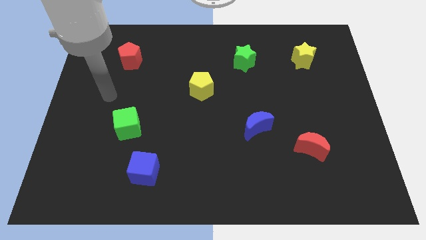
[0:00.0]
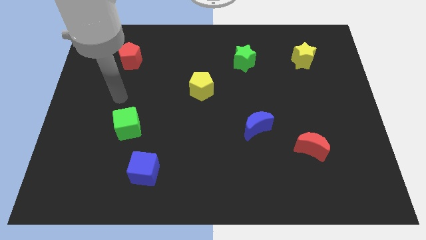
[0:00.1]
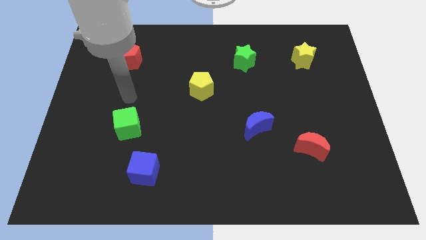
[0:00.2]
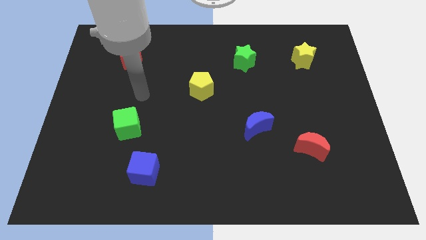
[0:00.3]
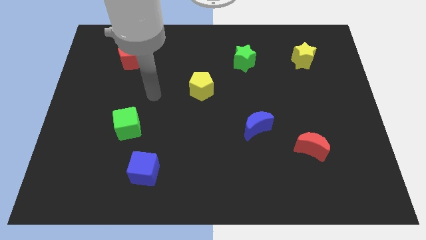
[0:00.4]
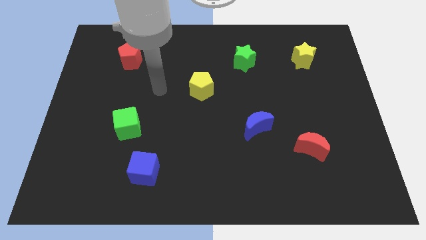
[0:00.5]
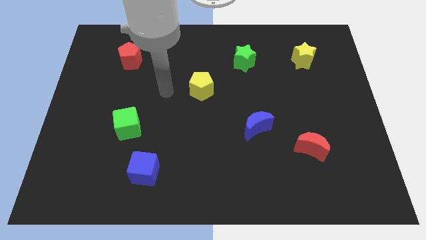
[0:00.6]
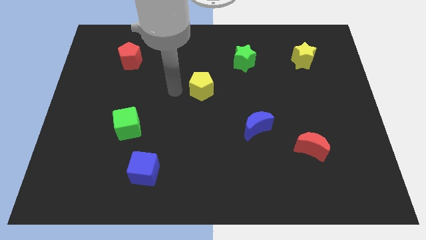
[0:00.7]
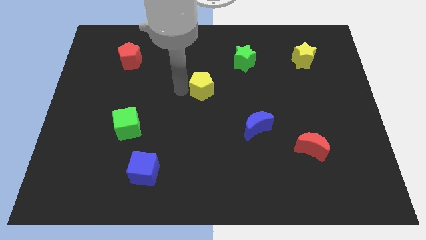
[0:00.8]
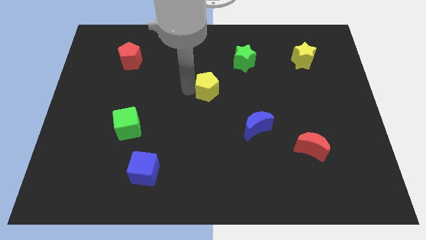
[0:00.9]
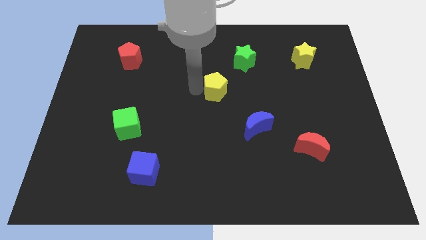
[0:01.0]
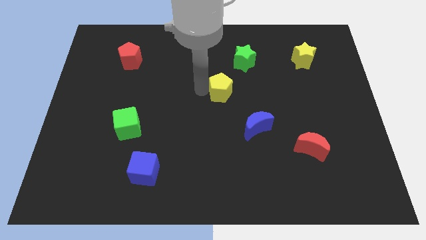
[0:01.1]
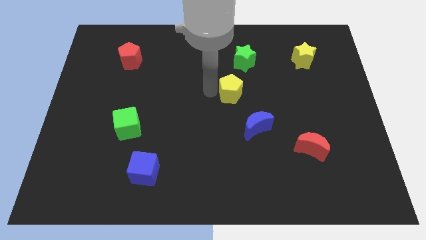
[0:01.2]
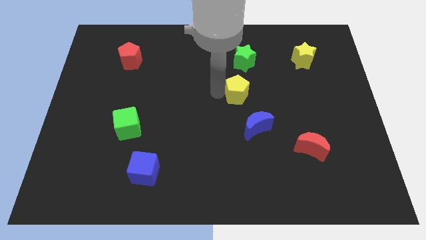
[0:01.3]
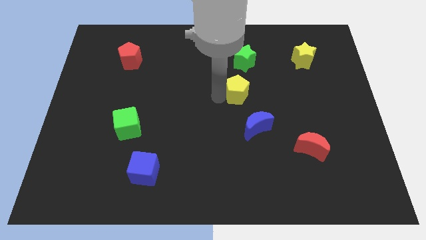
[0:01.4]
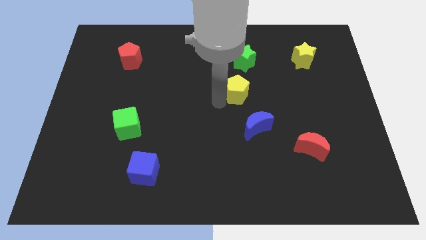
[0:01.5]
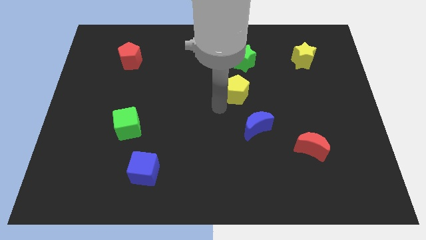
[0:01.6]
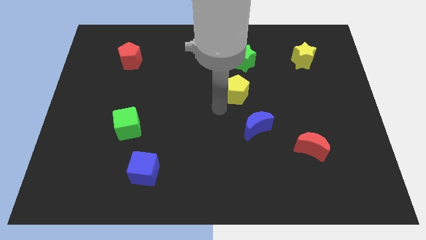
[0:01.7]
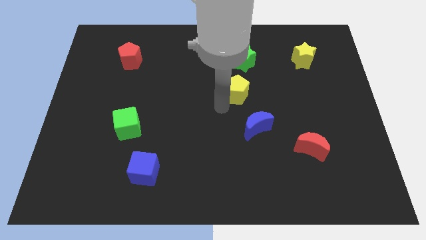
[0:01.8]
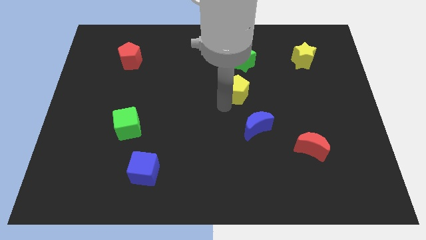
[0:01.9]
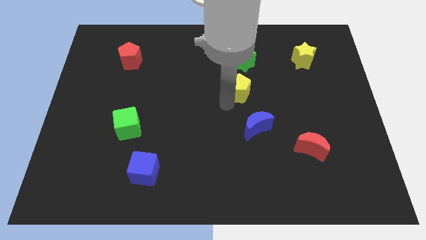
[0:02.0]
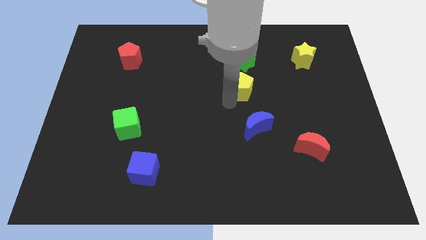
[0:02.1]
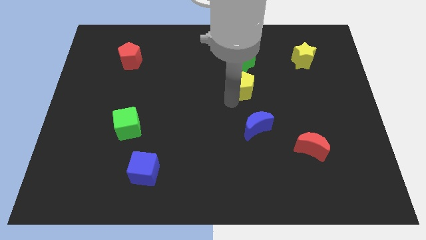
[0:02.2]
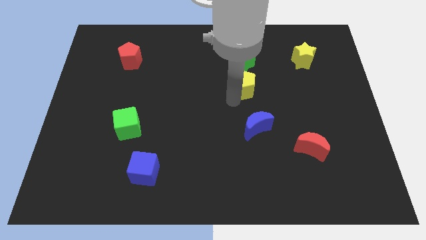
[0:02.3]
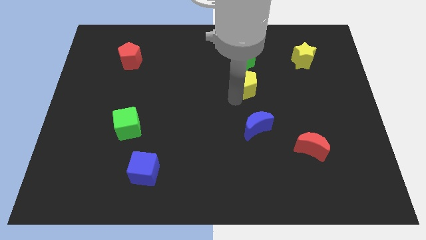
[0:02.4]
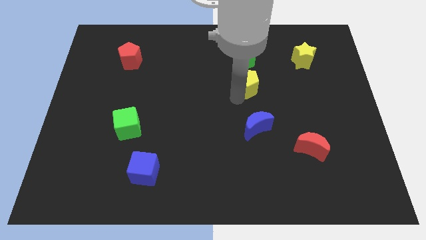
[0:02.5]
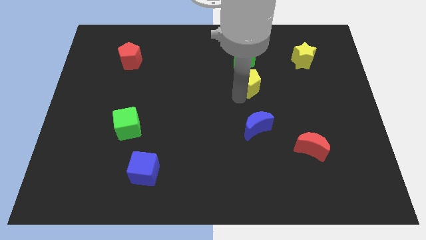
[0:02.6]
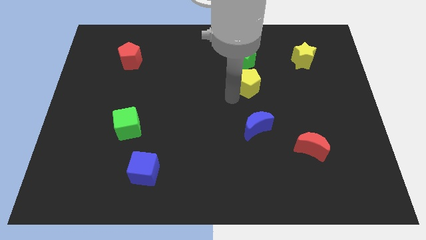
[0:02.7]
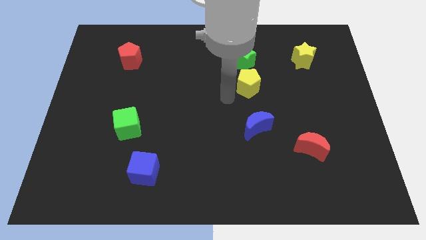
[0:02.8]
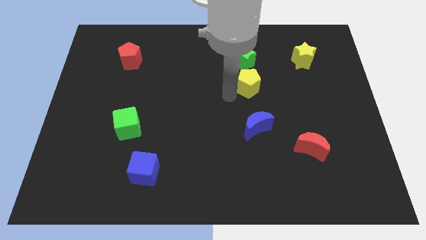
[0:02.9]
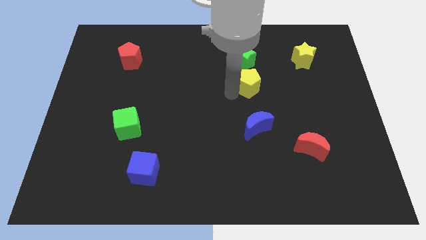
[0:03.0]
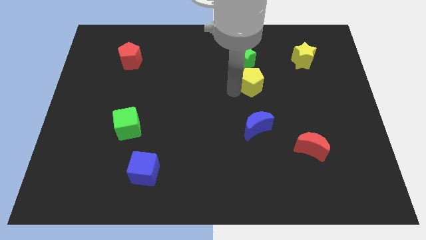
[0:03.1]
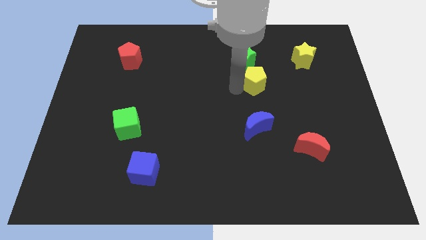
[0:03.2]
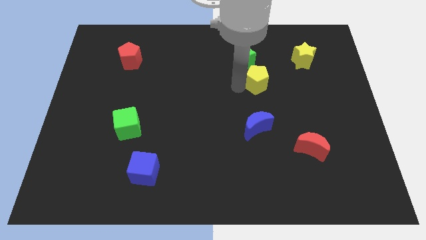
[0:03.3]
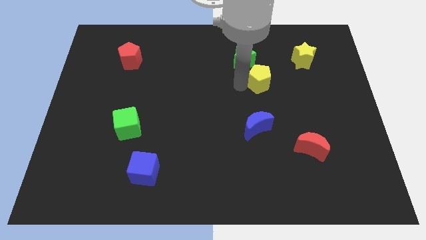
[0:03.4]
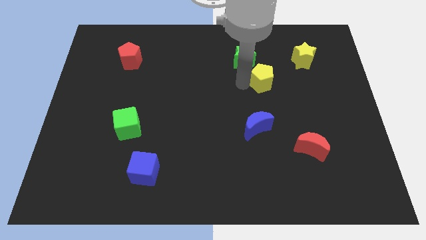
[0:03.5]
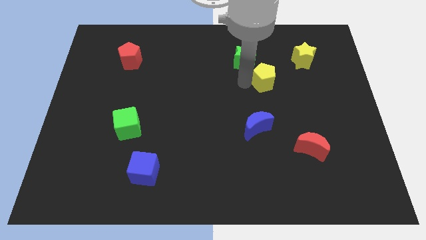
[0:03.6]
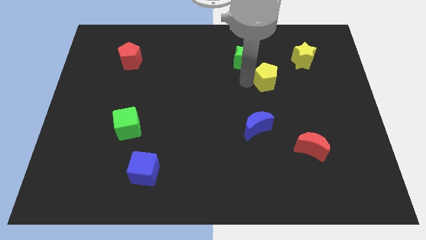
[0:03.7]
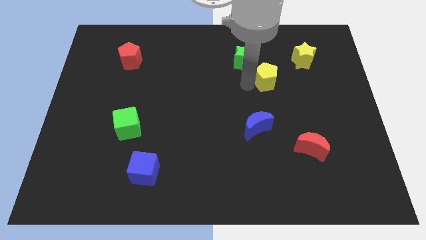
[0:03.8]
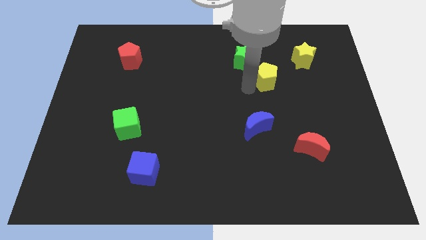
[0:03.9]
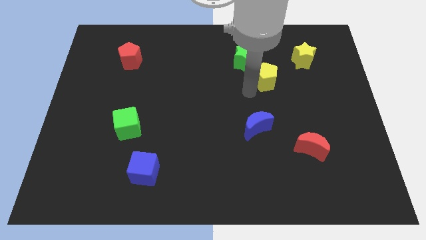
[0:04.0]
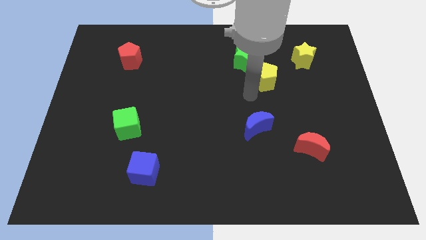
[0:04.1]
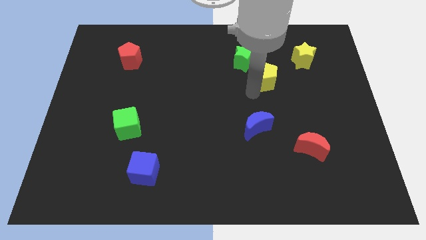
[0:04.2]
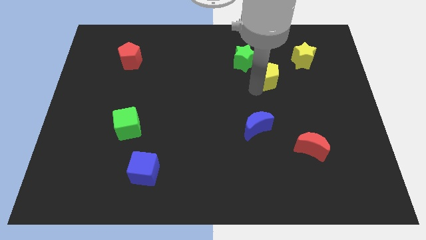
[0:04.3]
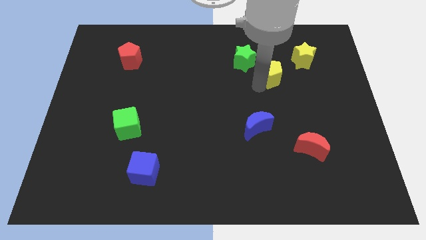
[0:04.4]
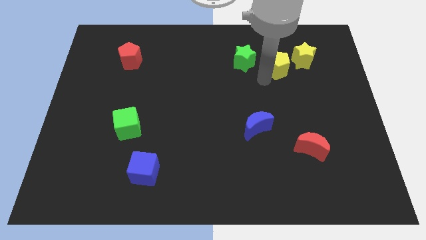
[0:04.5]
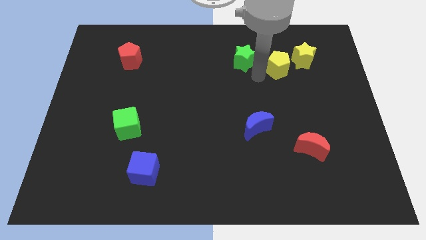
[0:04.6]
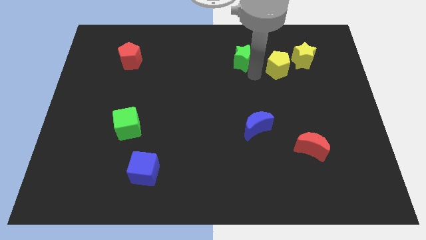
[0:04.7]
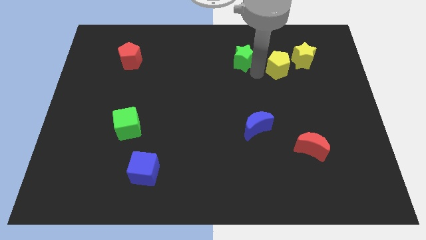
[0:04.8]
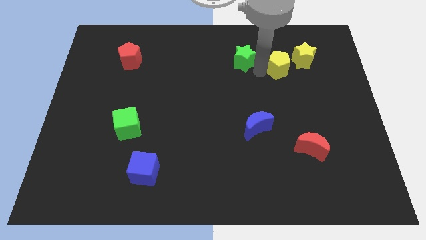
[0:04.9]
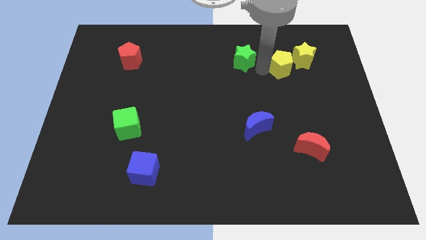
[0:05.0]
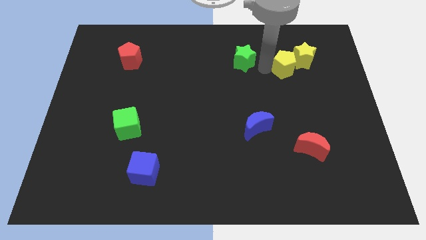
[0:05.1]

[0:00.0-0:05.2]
slide the yellow pentagon to the yellow star

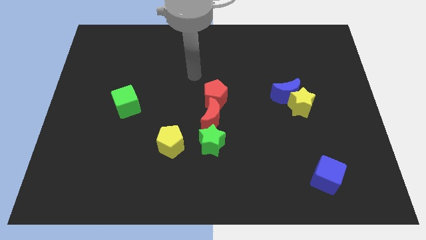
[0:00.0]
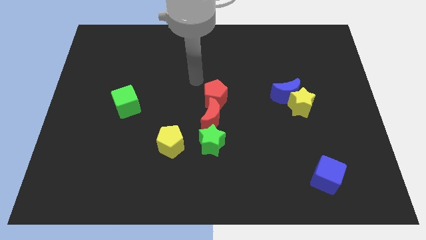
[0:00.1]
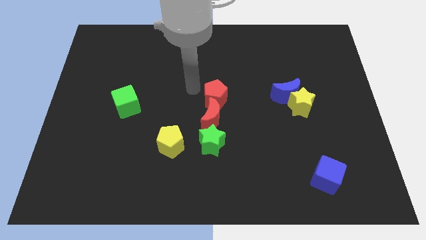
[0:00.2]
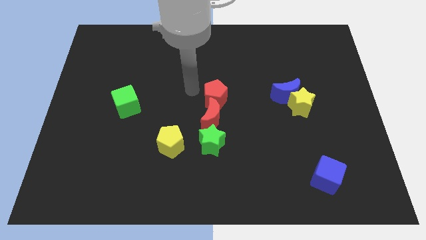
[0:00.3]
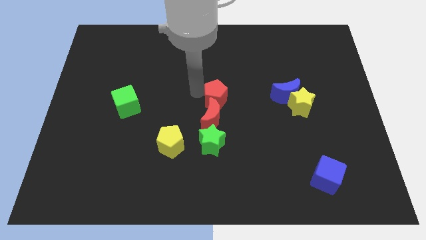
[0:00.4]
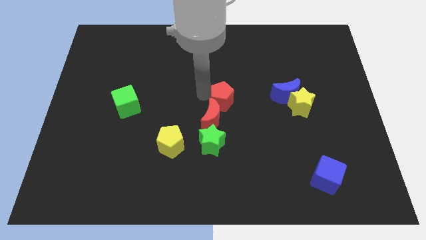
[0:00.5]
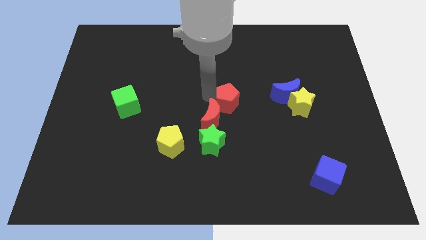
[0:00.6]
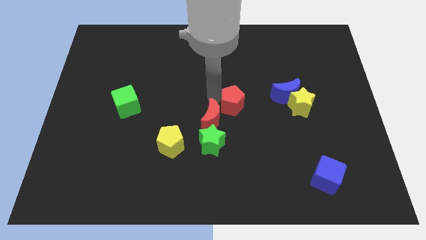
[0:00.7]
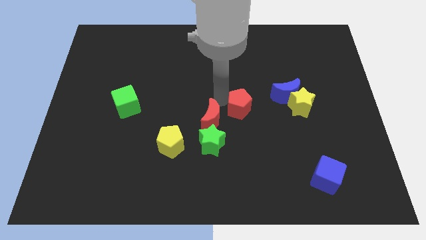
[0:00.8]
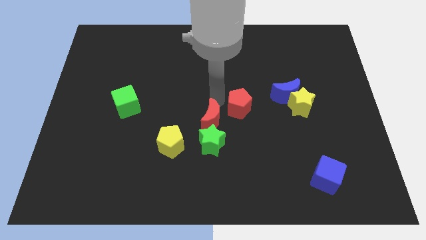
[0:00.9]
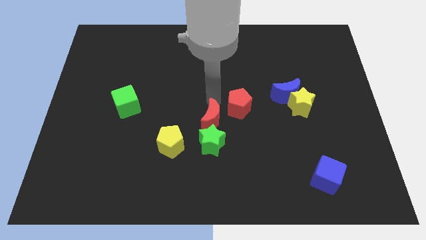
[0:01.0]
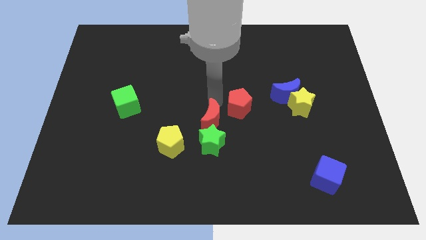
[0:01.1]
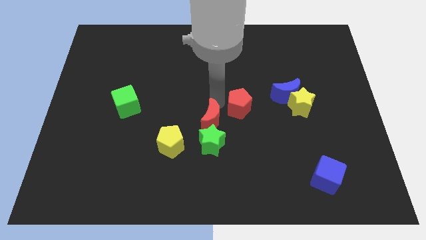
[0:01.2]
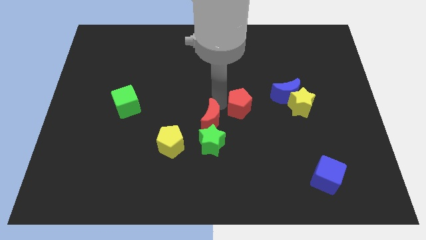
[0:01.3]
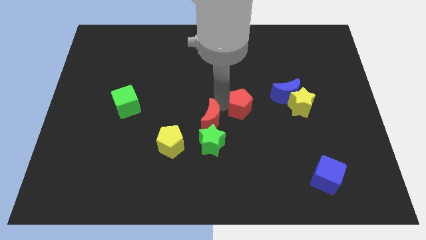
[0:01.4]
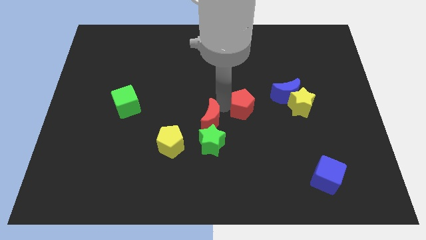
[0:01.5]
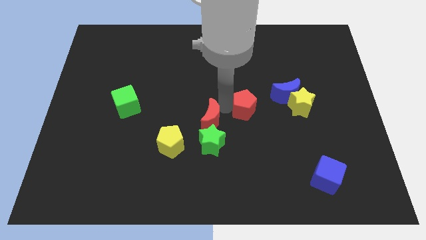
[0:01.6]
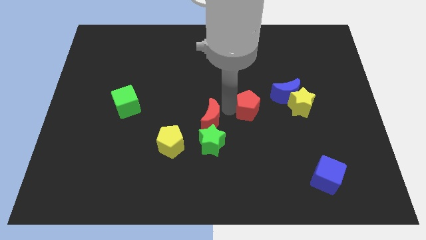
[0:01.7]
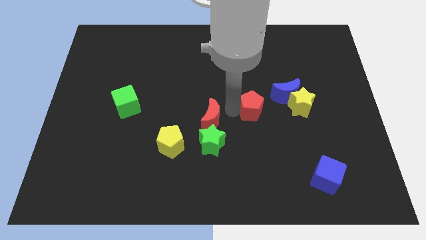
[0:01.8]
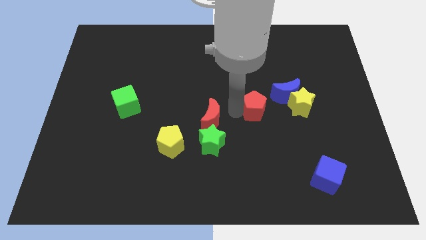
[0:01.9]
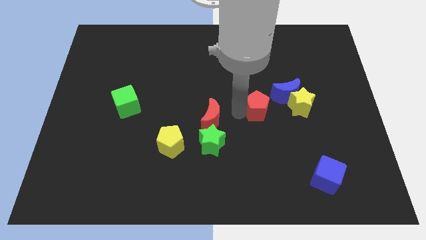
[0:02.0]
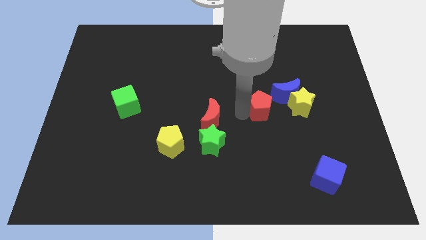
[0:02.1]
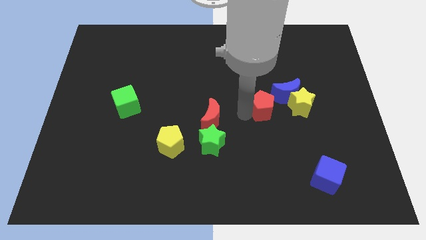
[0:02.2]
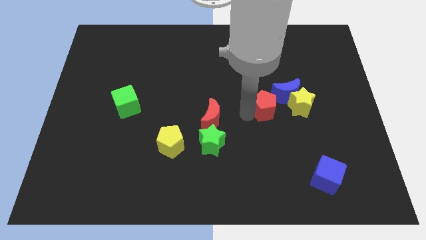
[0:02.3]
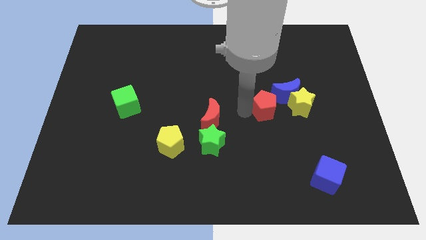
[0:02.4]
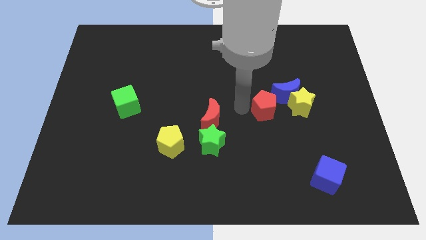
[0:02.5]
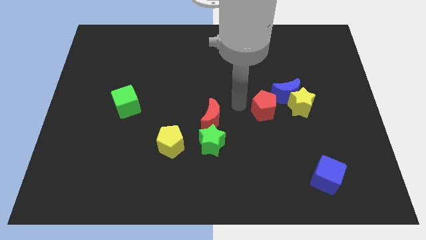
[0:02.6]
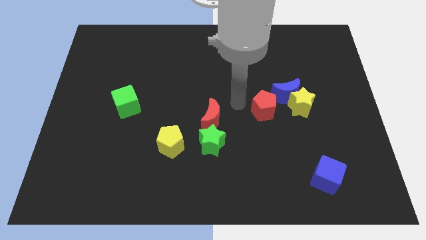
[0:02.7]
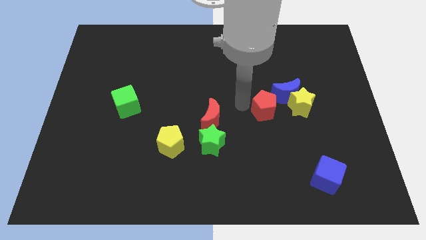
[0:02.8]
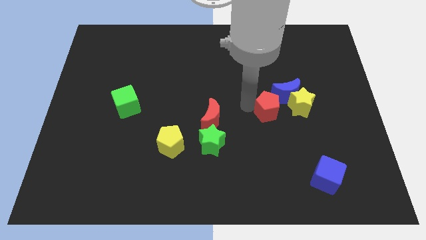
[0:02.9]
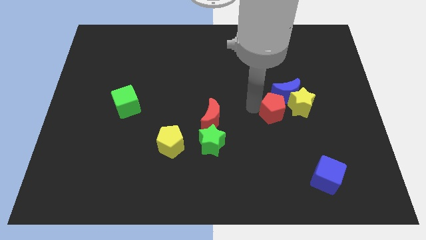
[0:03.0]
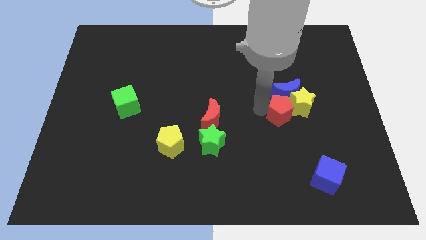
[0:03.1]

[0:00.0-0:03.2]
push the red pentagon towards the yellow star
